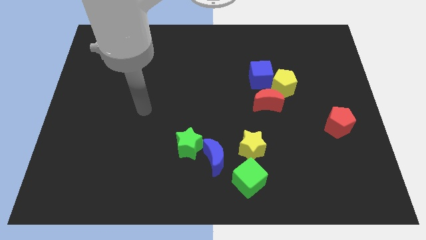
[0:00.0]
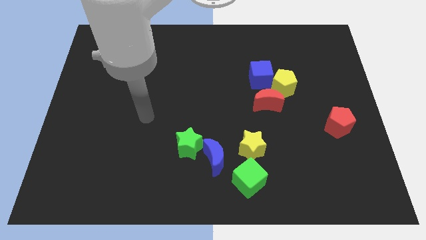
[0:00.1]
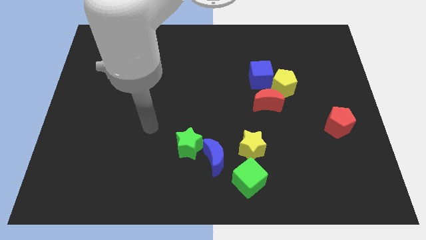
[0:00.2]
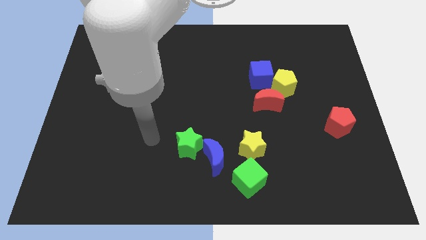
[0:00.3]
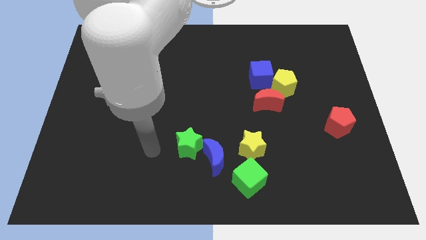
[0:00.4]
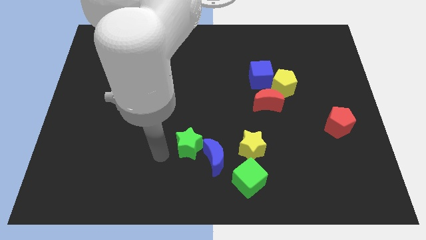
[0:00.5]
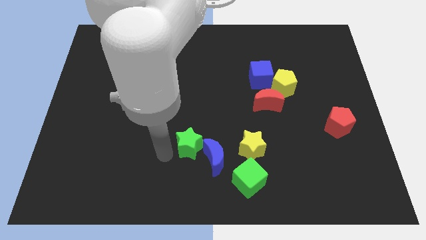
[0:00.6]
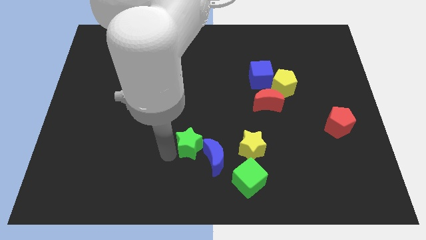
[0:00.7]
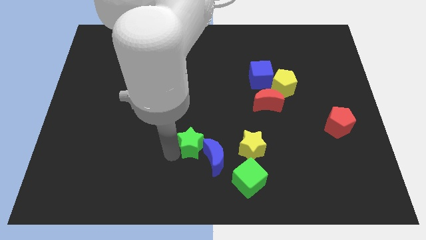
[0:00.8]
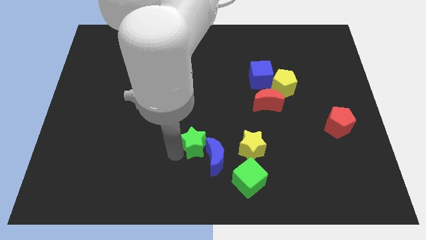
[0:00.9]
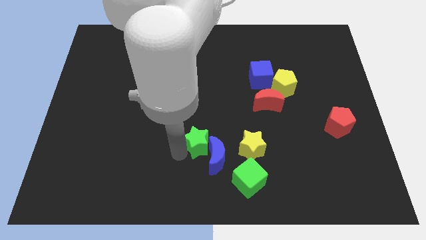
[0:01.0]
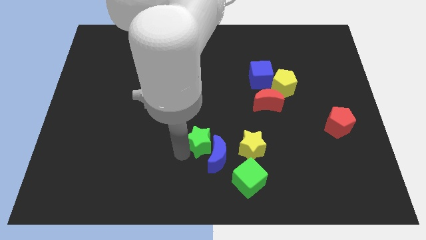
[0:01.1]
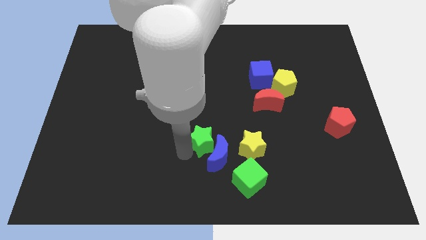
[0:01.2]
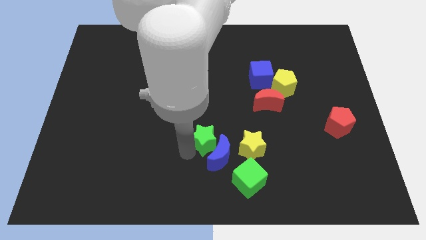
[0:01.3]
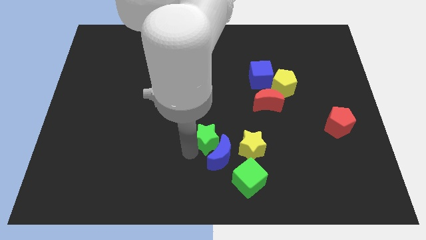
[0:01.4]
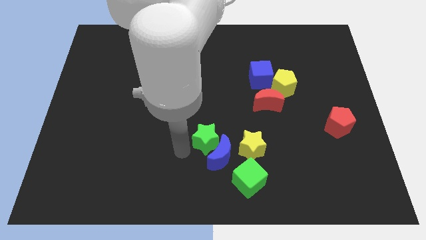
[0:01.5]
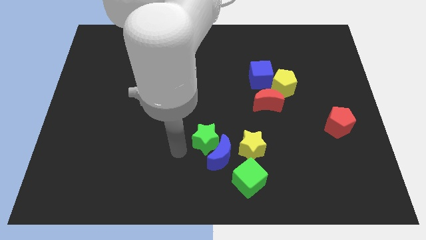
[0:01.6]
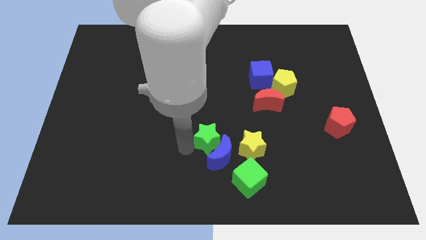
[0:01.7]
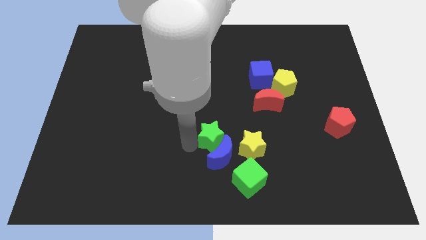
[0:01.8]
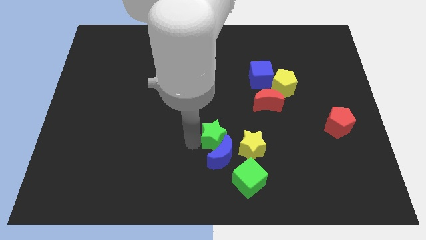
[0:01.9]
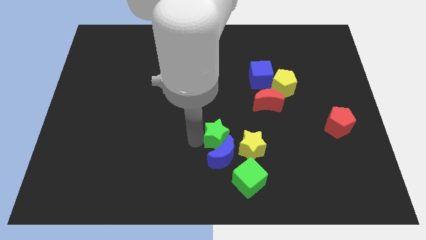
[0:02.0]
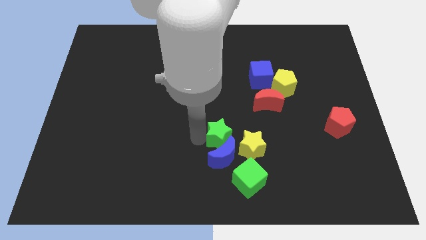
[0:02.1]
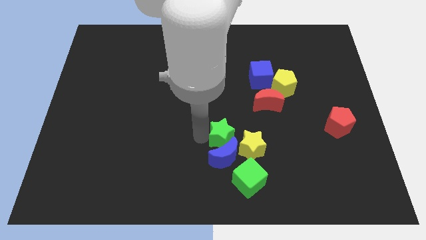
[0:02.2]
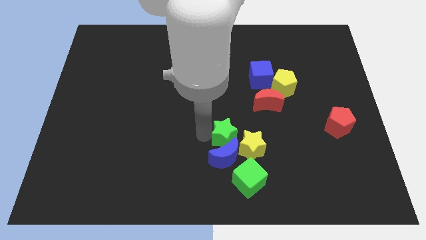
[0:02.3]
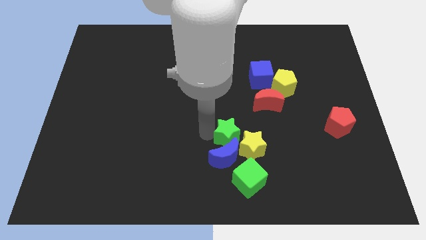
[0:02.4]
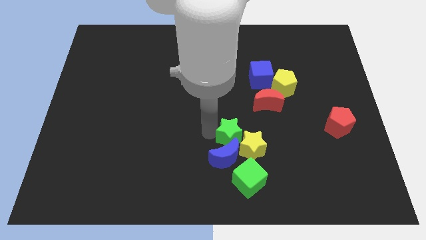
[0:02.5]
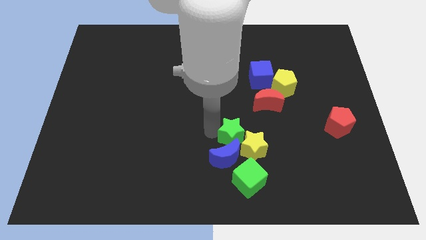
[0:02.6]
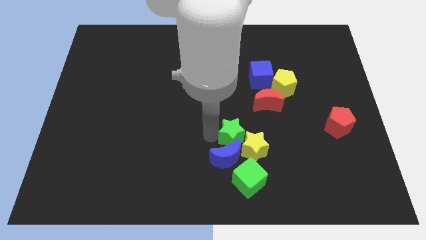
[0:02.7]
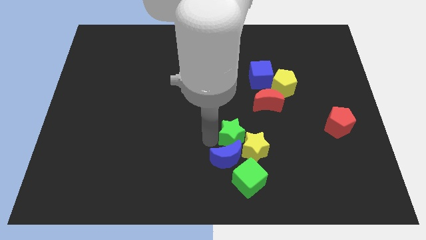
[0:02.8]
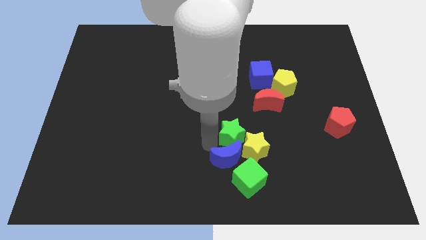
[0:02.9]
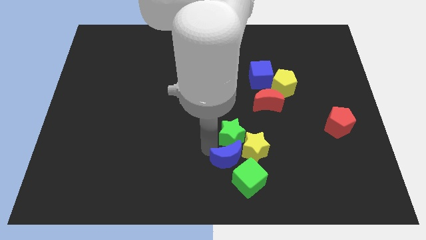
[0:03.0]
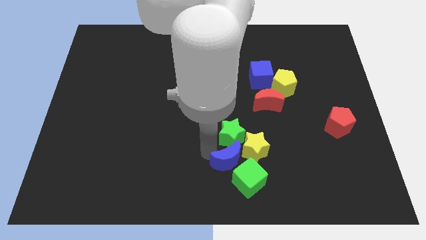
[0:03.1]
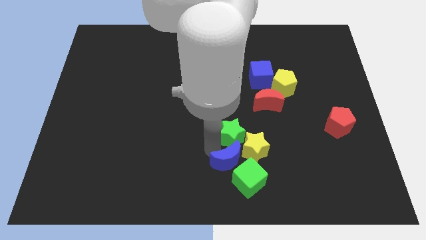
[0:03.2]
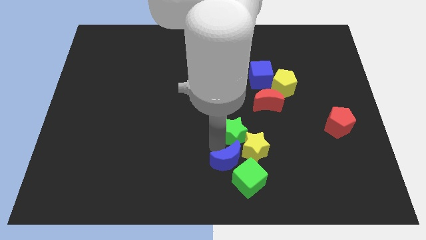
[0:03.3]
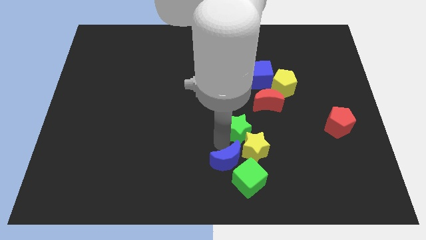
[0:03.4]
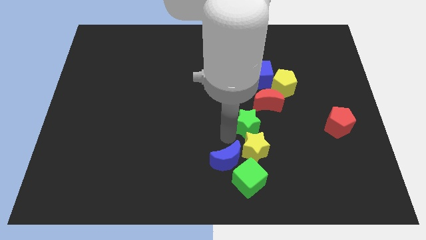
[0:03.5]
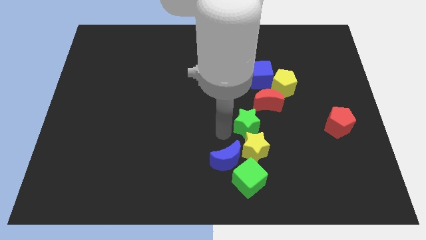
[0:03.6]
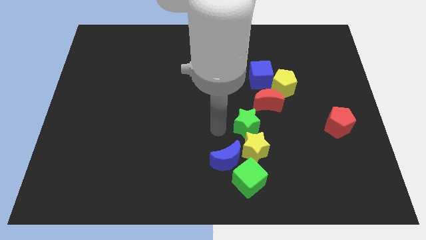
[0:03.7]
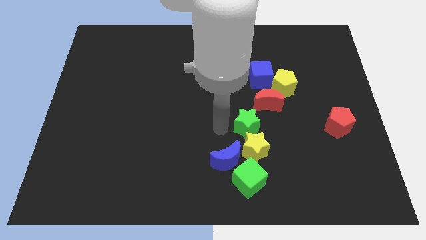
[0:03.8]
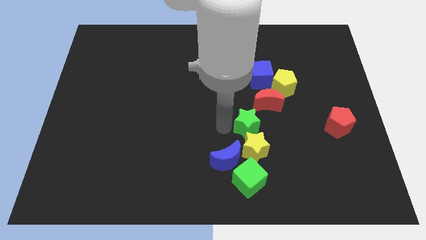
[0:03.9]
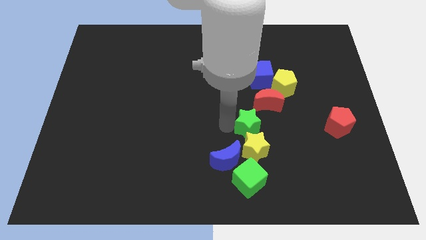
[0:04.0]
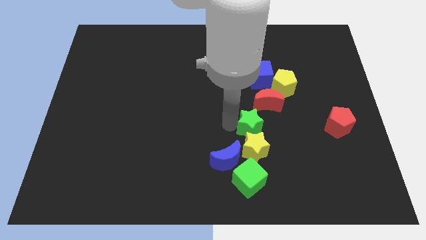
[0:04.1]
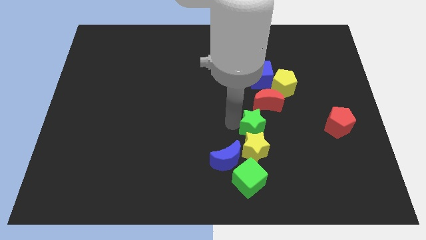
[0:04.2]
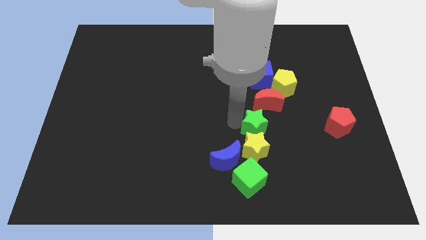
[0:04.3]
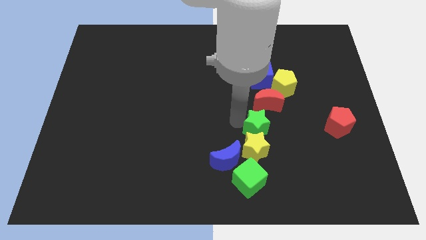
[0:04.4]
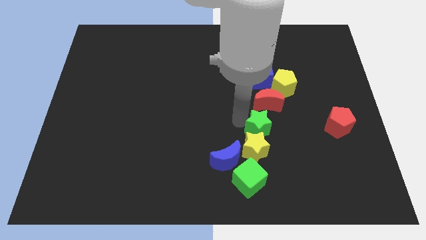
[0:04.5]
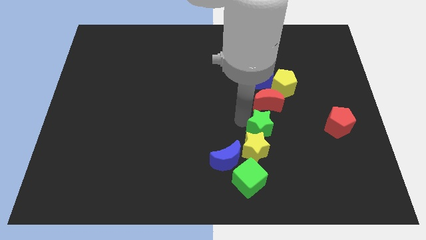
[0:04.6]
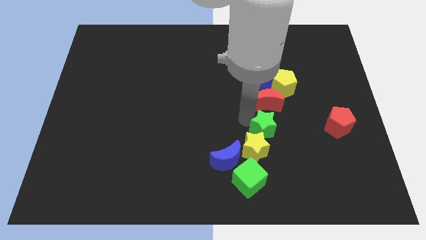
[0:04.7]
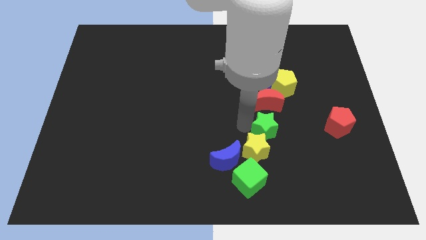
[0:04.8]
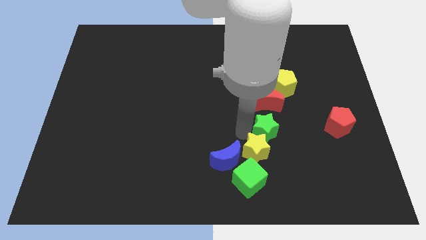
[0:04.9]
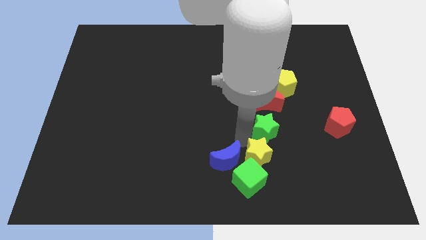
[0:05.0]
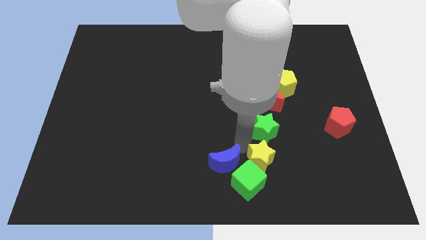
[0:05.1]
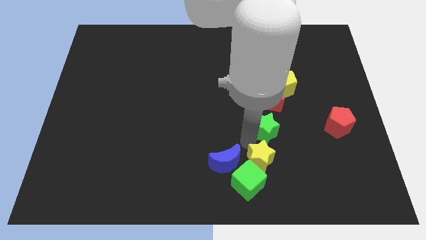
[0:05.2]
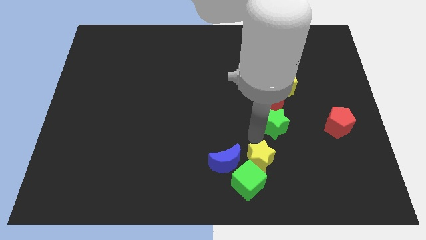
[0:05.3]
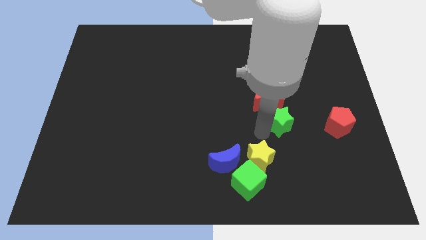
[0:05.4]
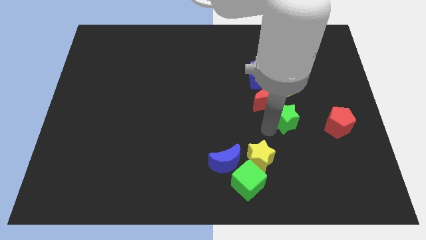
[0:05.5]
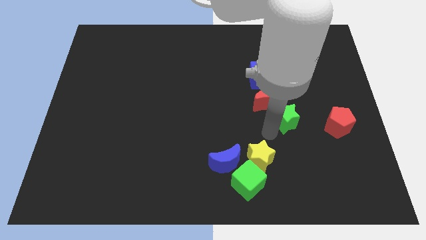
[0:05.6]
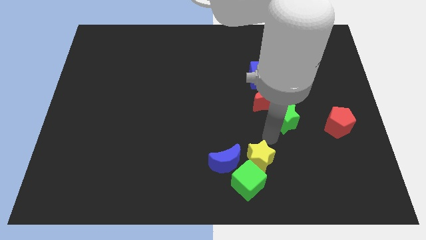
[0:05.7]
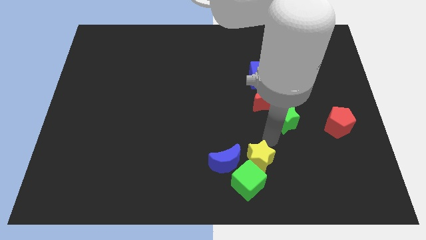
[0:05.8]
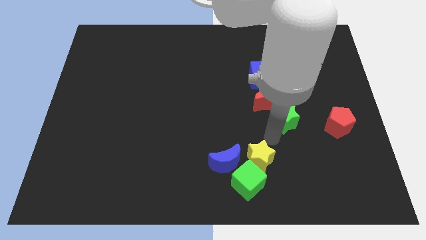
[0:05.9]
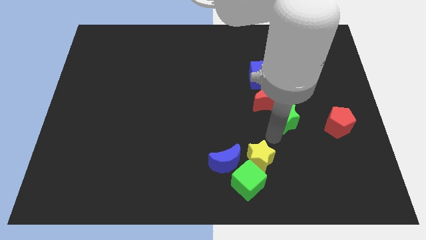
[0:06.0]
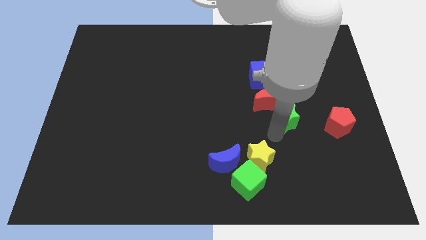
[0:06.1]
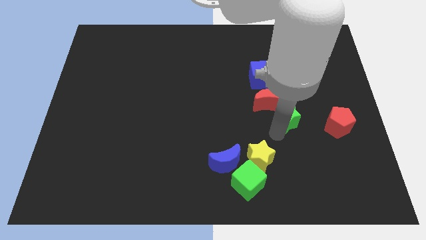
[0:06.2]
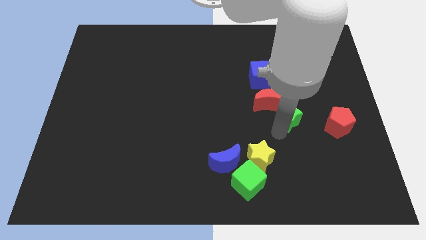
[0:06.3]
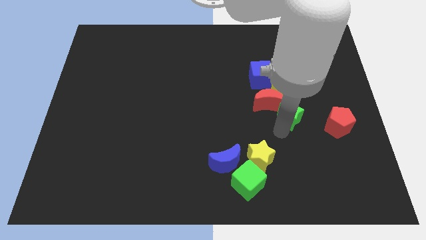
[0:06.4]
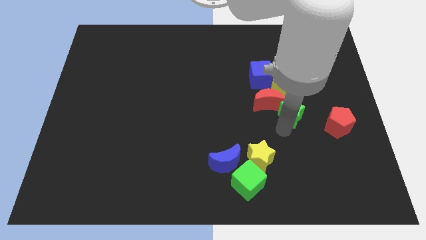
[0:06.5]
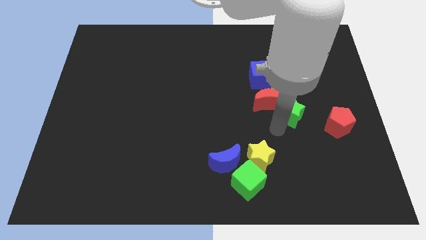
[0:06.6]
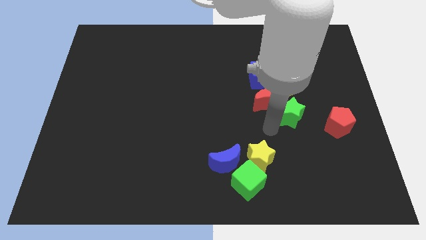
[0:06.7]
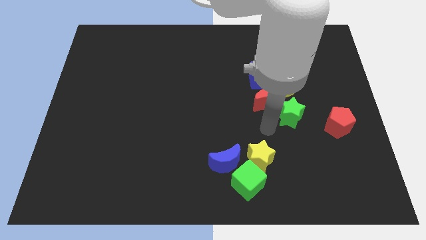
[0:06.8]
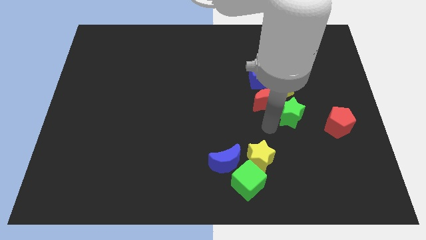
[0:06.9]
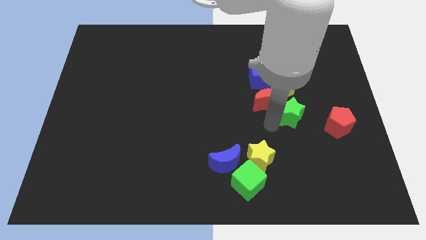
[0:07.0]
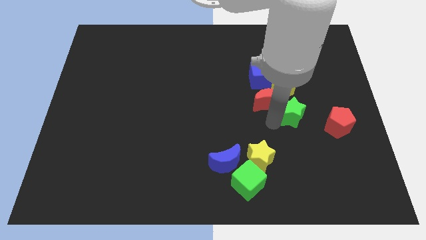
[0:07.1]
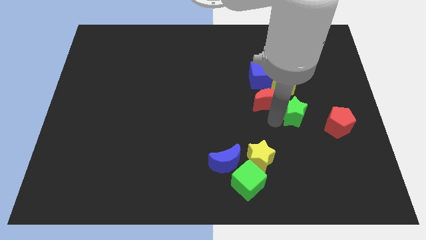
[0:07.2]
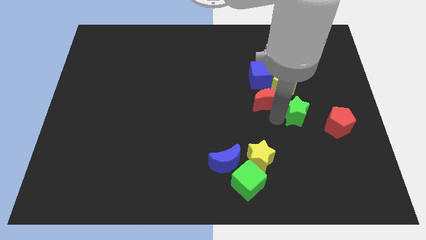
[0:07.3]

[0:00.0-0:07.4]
slide the green star to the bottom right side of the yellow pentagon
